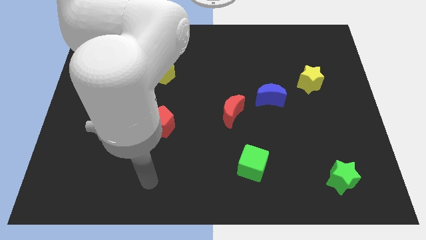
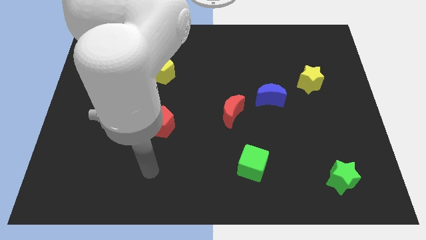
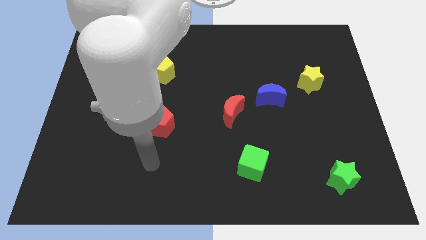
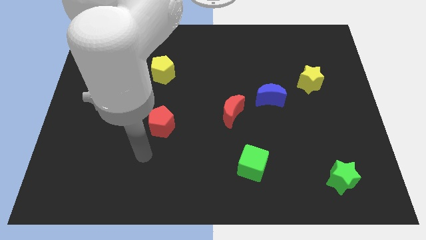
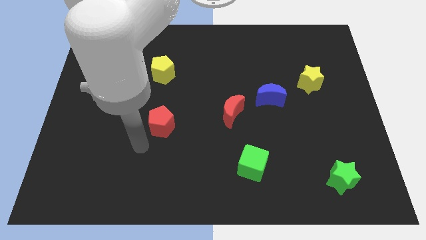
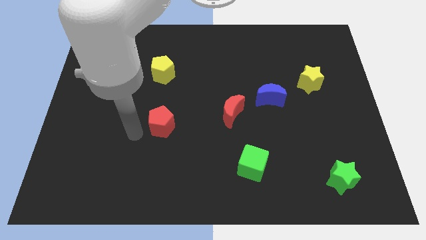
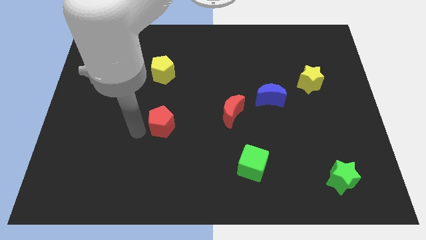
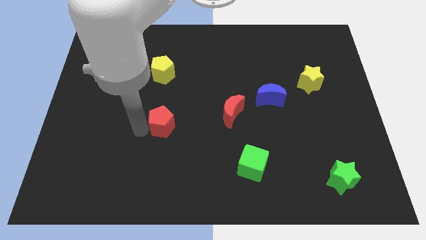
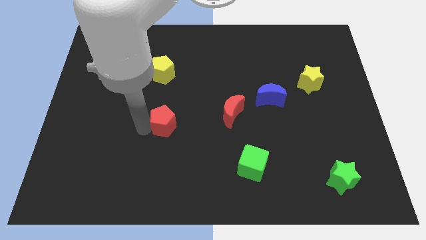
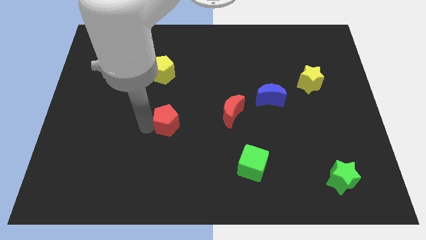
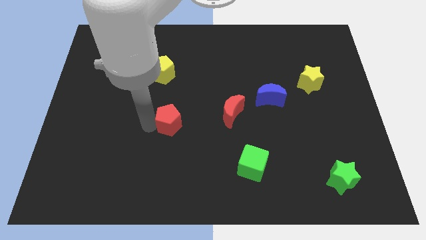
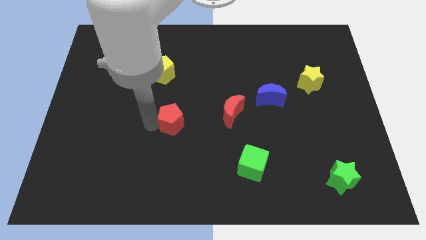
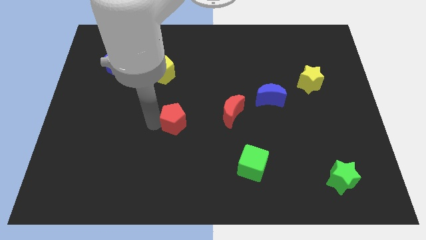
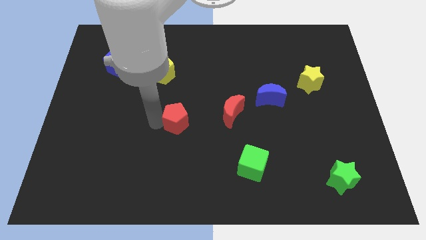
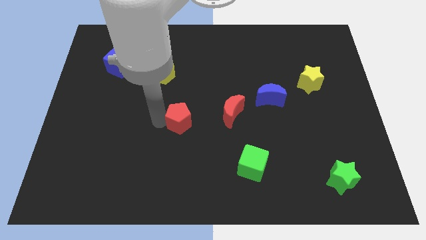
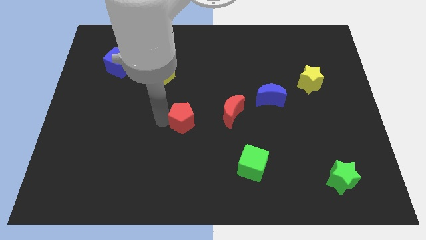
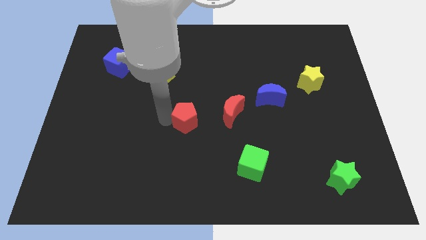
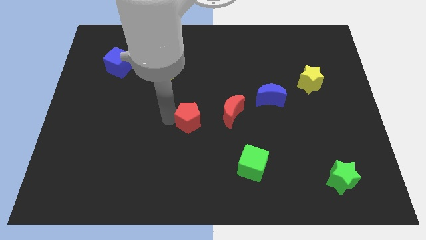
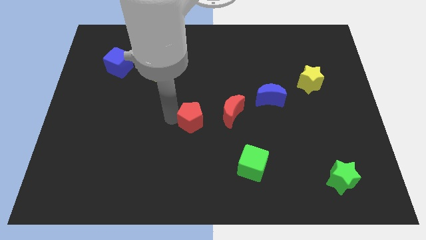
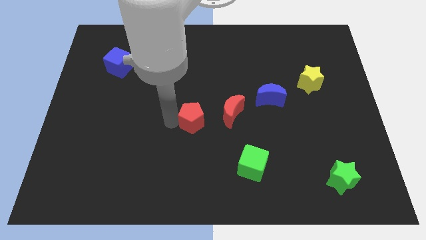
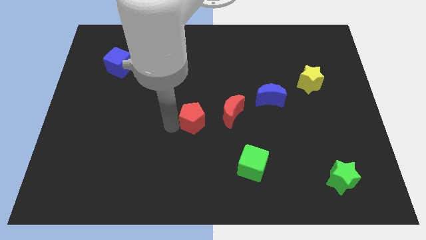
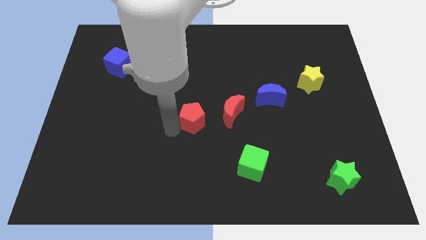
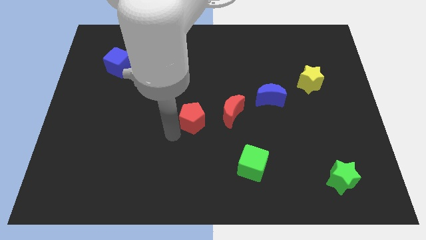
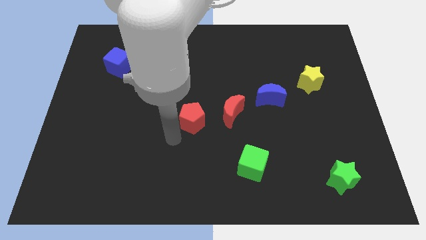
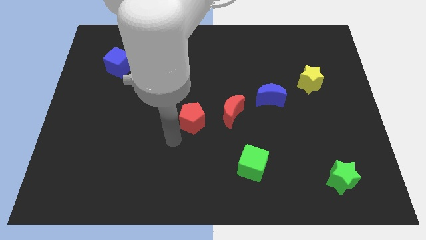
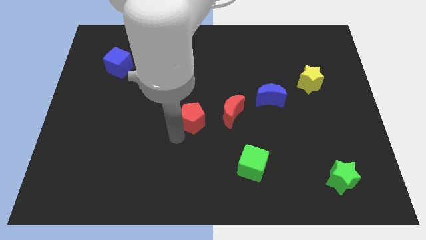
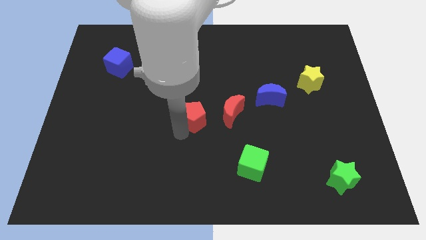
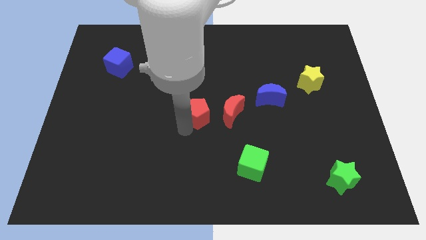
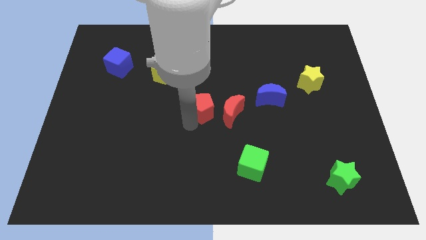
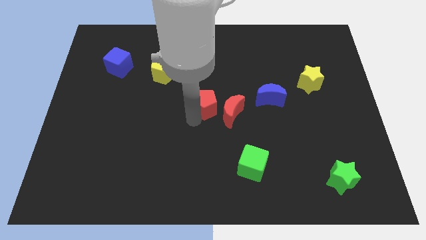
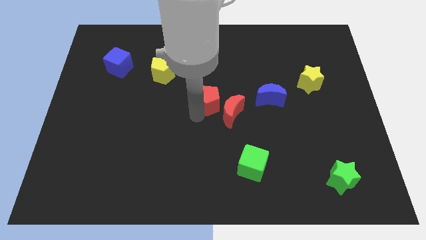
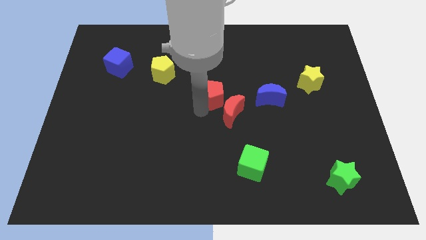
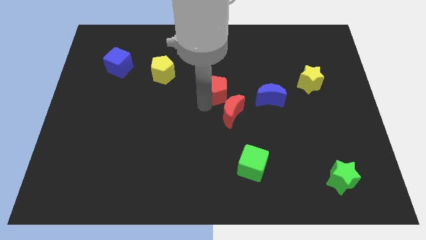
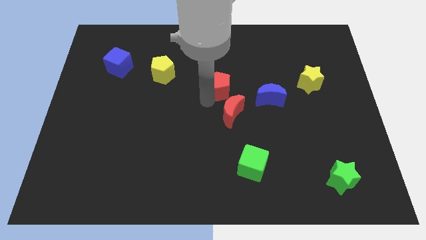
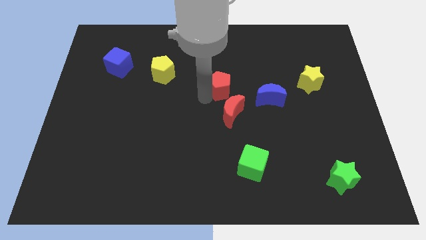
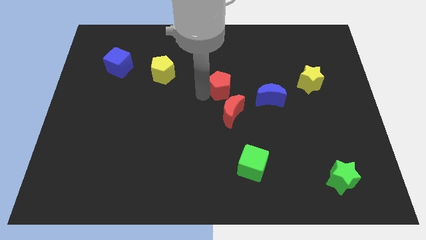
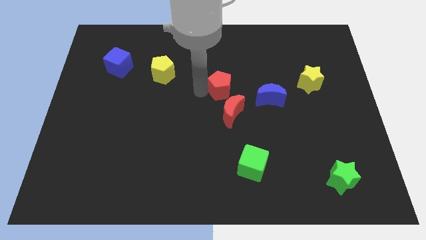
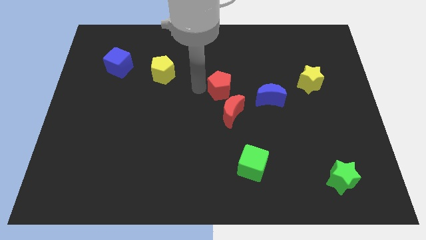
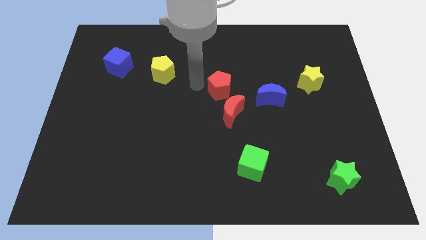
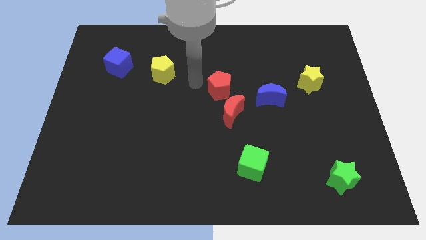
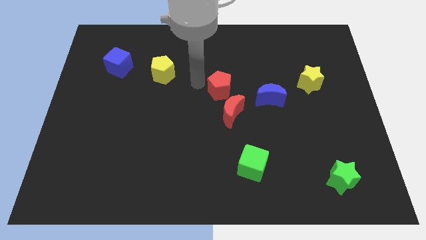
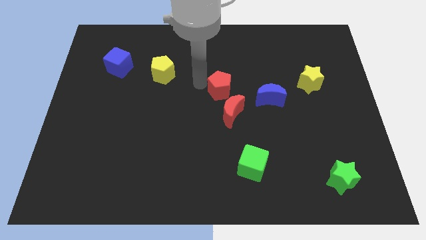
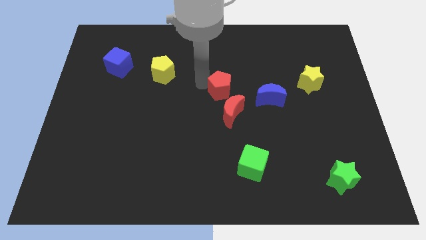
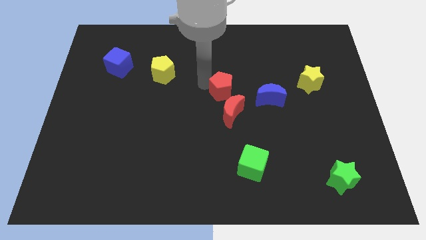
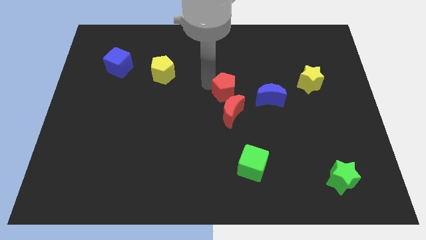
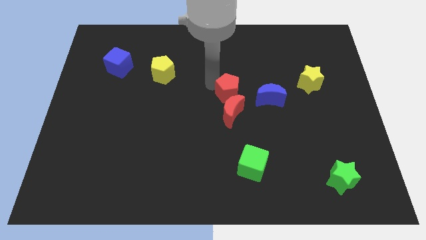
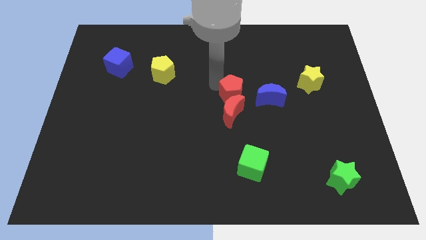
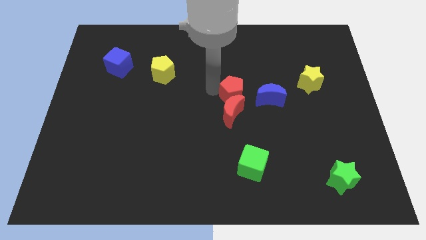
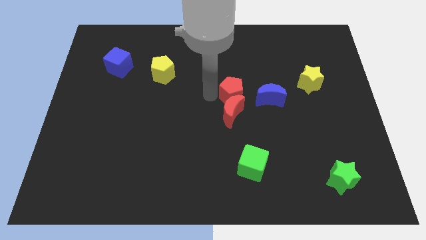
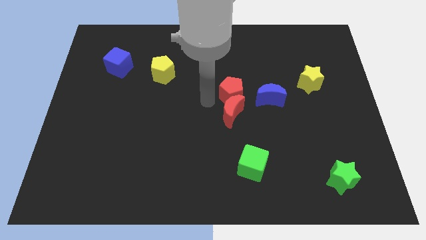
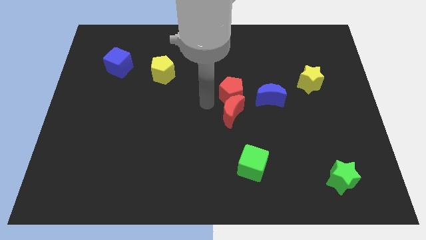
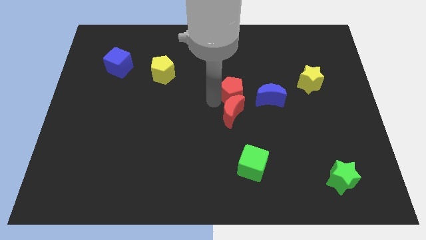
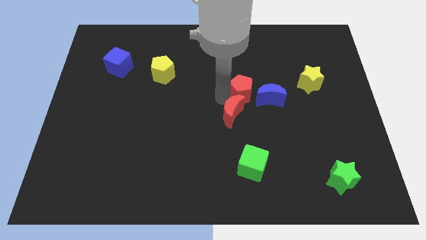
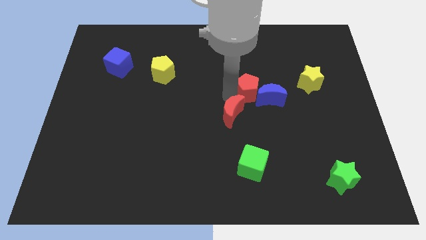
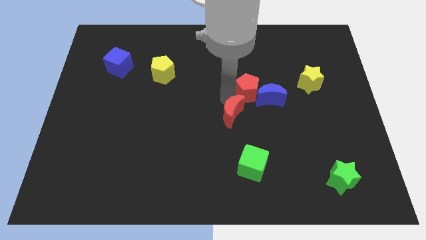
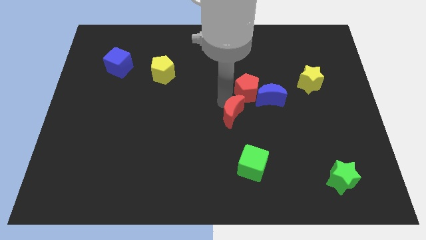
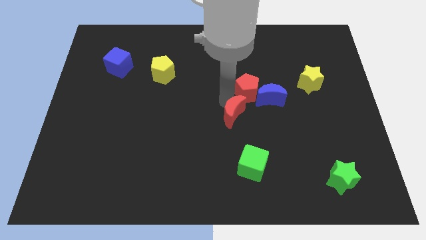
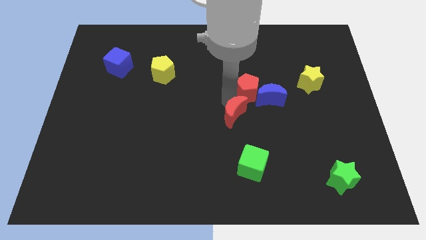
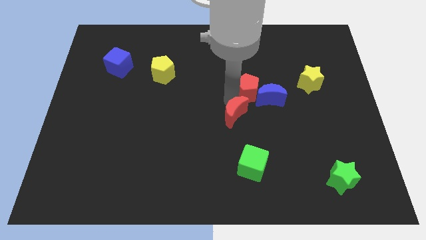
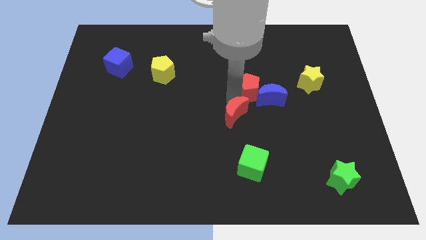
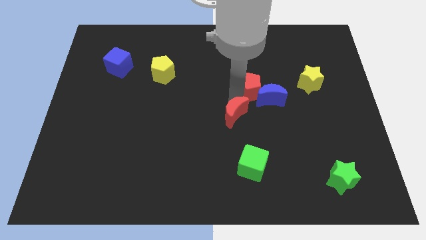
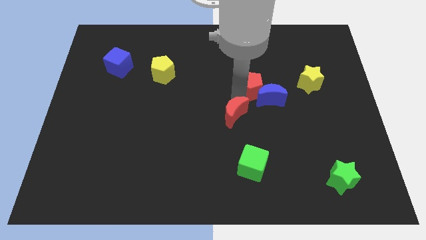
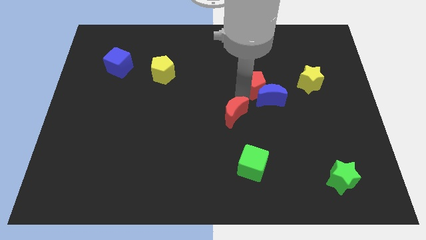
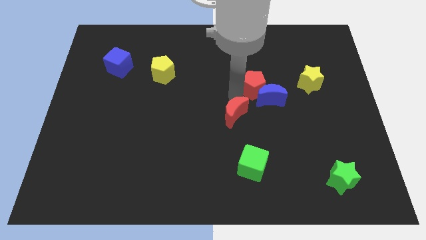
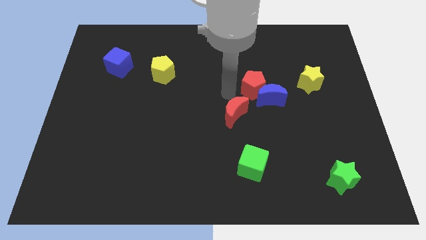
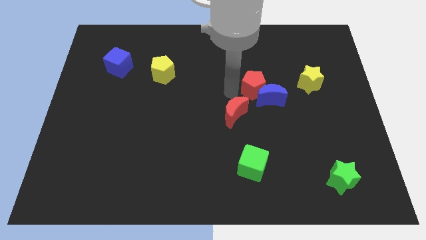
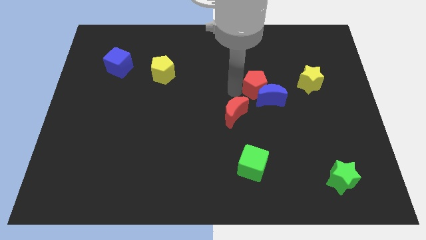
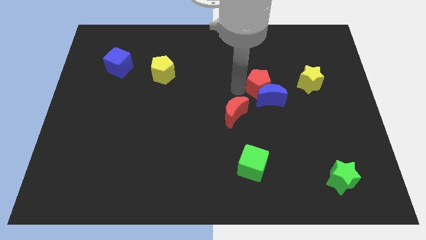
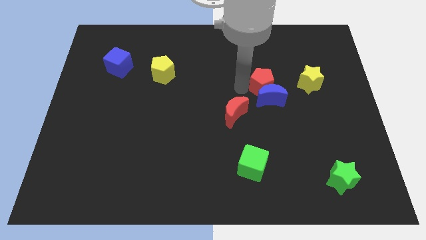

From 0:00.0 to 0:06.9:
move the red pentagon to the top right side of the blue moon

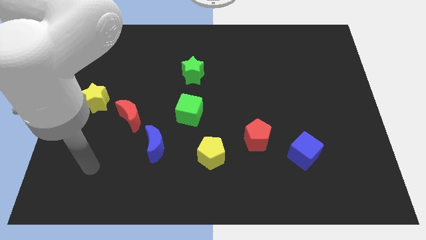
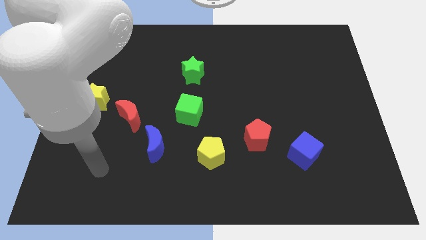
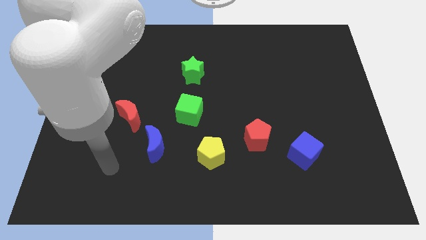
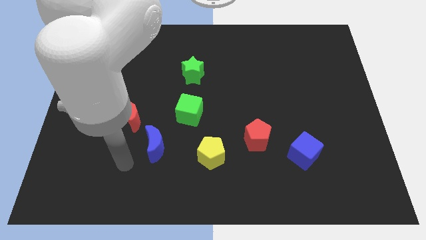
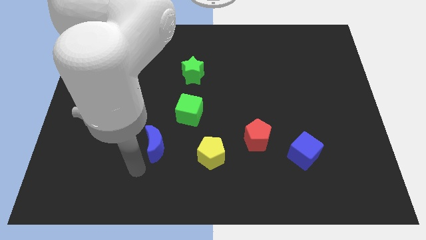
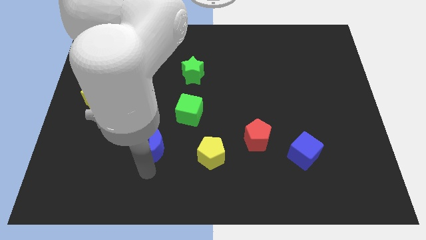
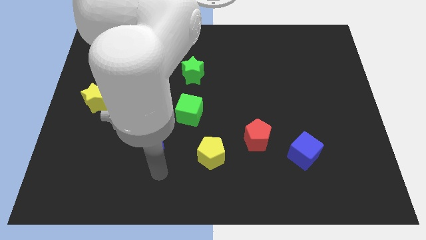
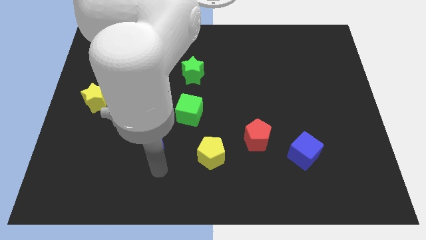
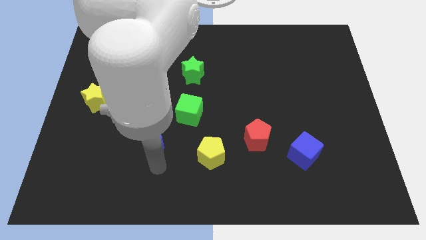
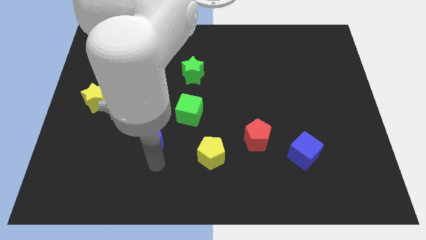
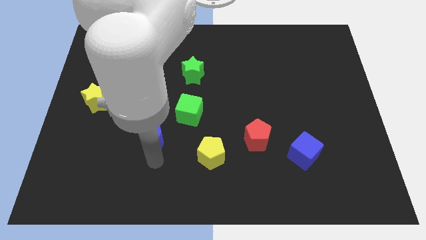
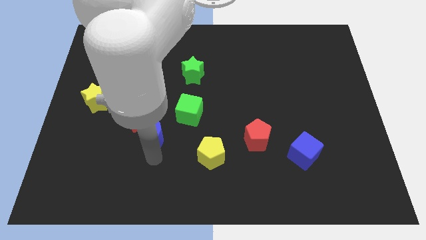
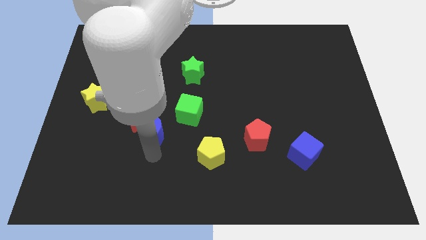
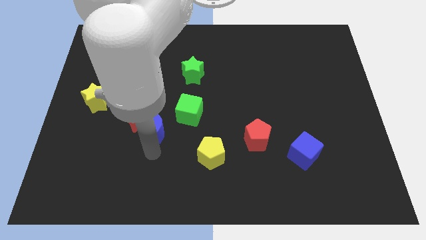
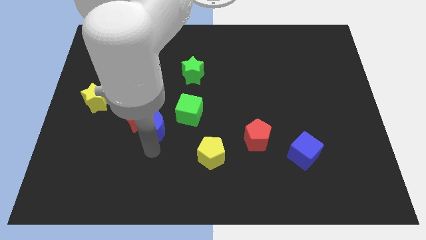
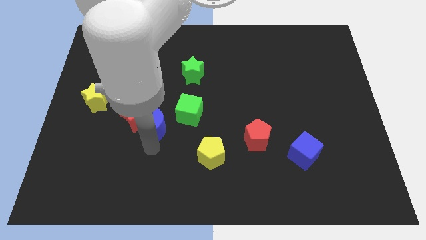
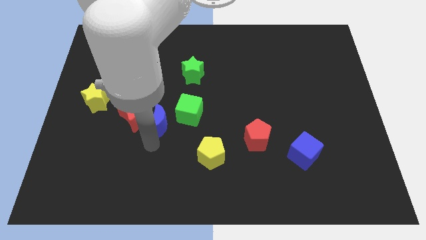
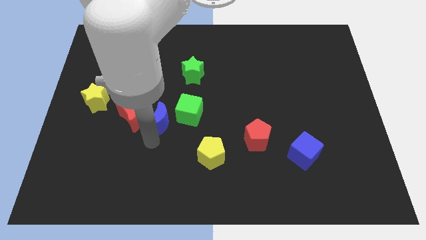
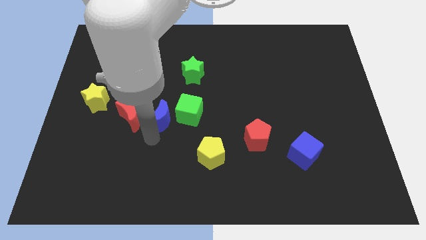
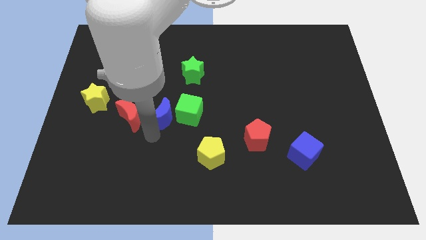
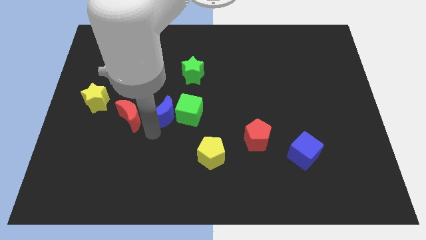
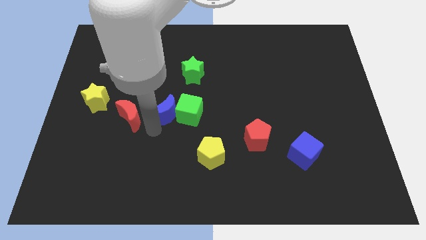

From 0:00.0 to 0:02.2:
push the blue moon to the top right of the red moon
